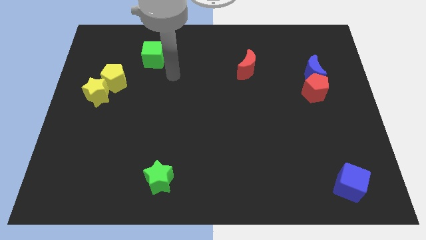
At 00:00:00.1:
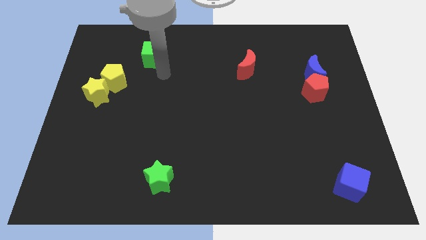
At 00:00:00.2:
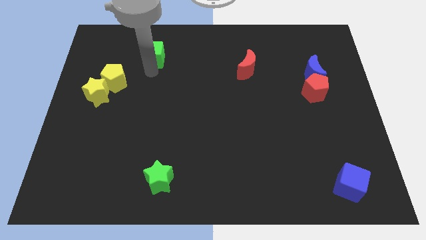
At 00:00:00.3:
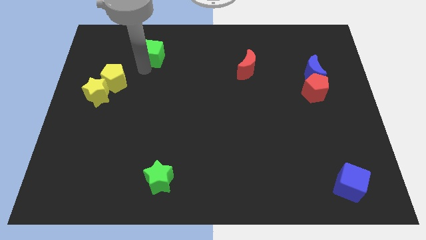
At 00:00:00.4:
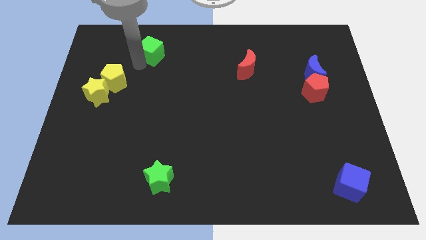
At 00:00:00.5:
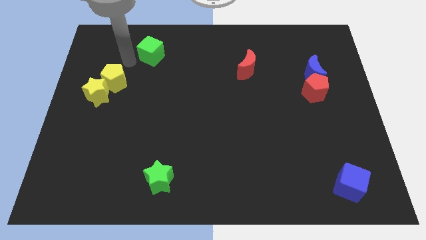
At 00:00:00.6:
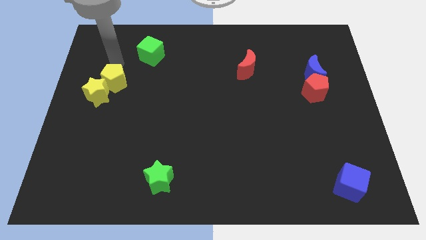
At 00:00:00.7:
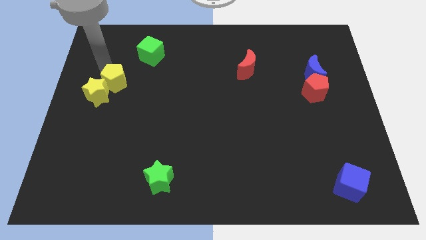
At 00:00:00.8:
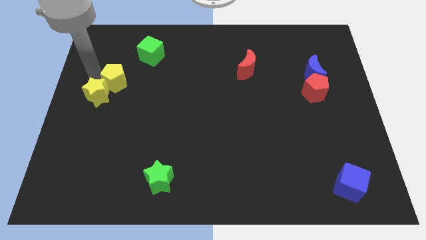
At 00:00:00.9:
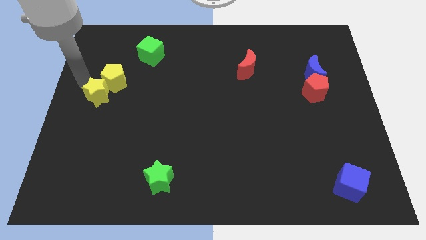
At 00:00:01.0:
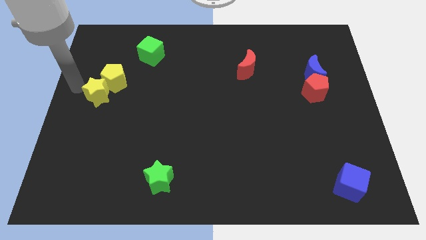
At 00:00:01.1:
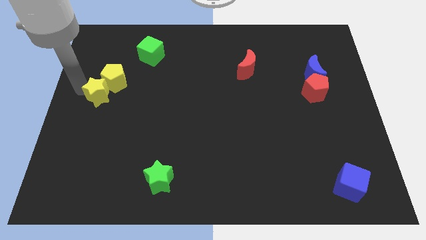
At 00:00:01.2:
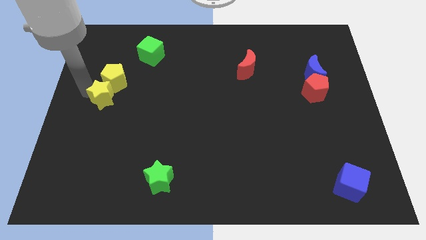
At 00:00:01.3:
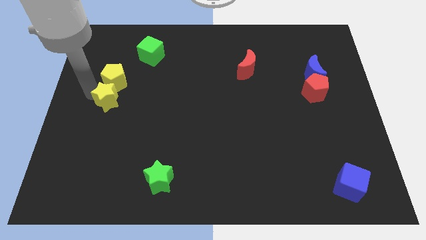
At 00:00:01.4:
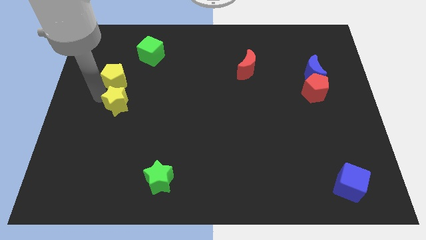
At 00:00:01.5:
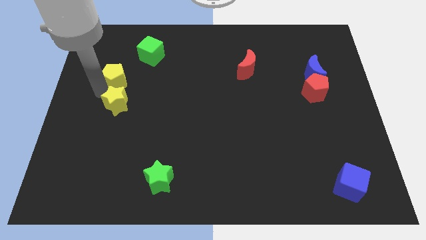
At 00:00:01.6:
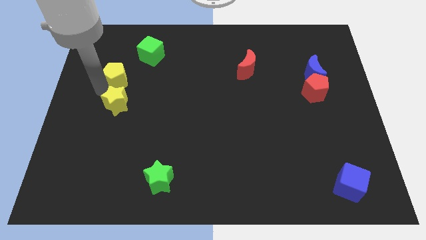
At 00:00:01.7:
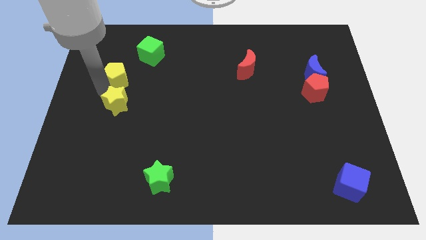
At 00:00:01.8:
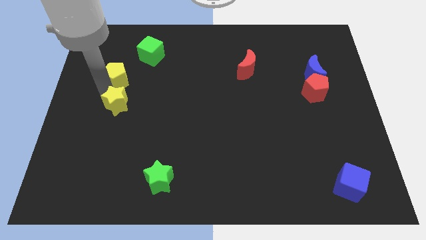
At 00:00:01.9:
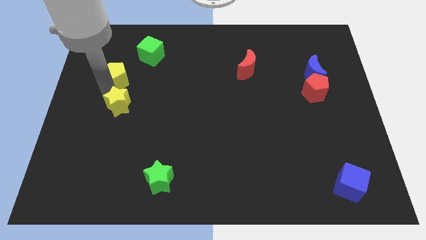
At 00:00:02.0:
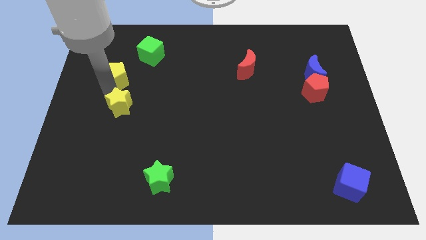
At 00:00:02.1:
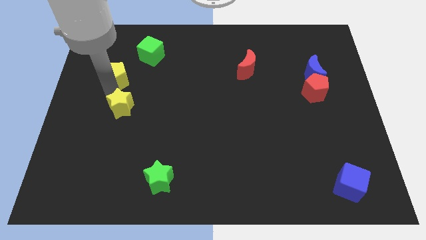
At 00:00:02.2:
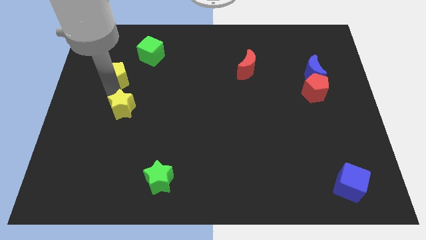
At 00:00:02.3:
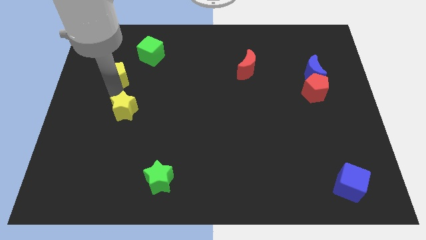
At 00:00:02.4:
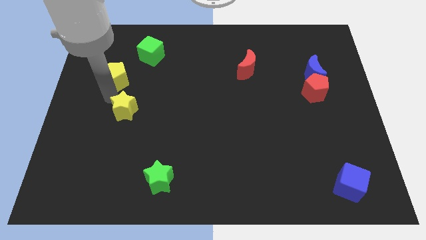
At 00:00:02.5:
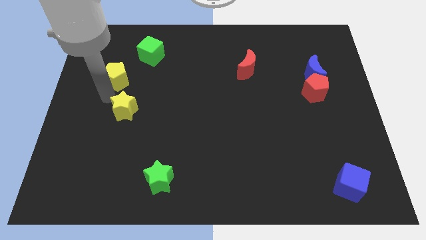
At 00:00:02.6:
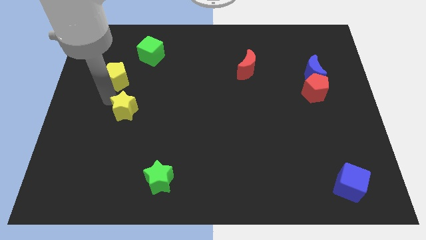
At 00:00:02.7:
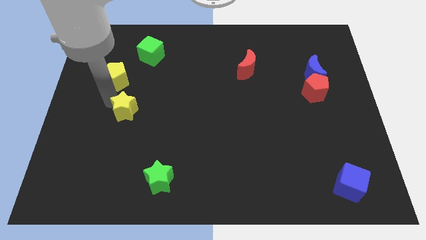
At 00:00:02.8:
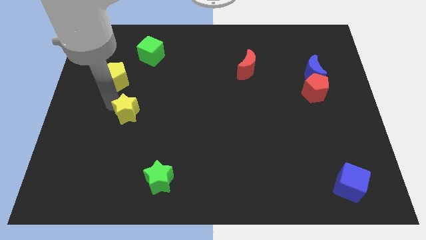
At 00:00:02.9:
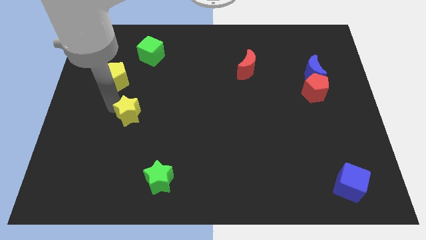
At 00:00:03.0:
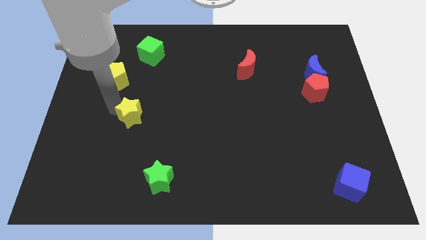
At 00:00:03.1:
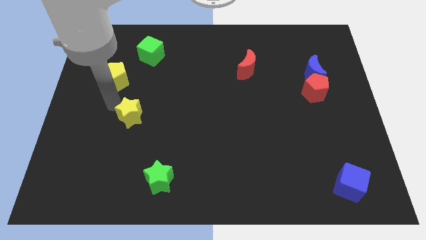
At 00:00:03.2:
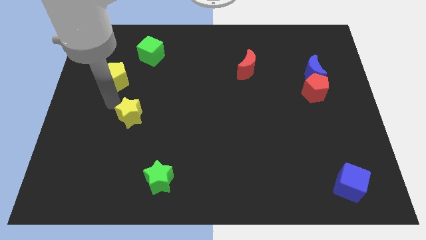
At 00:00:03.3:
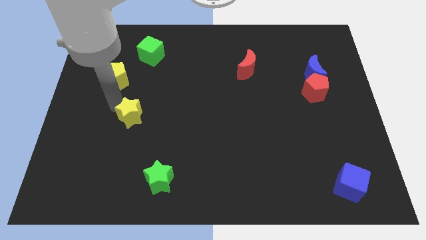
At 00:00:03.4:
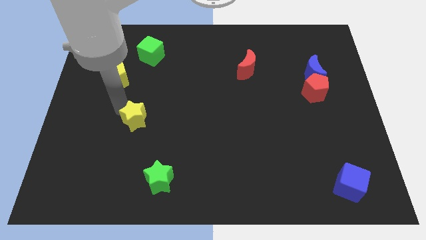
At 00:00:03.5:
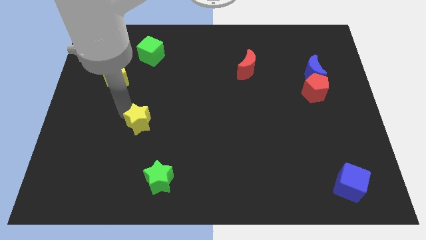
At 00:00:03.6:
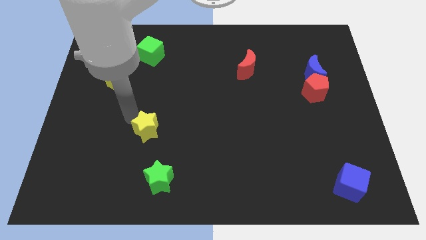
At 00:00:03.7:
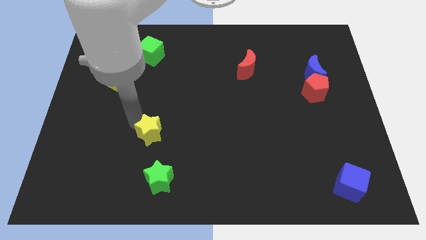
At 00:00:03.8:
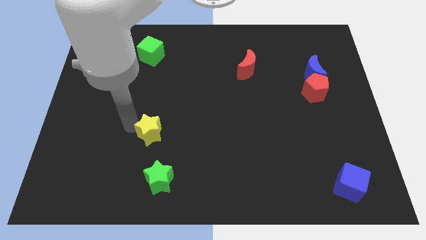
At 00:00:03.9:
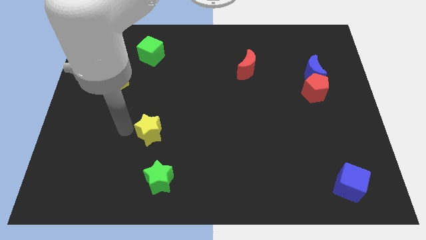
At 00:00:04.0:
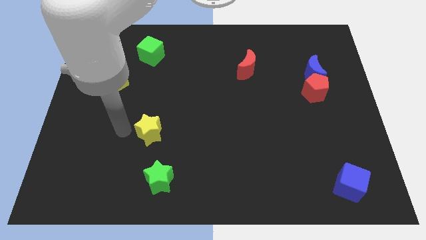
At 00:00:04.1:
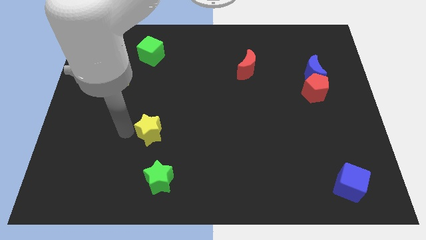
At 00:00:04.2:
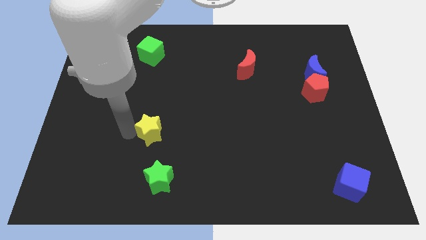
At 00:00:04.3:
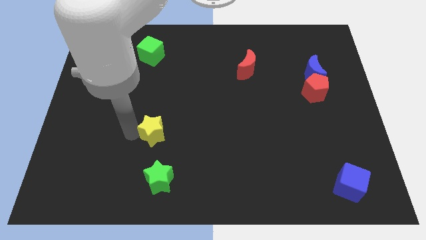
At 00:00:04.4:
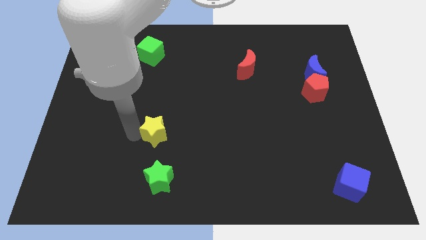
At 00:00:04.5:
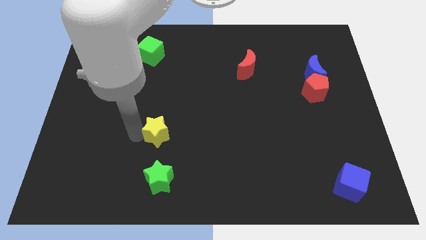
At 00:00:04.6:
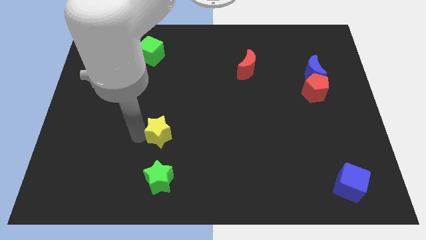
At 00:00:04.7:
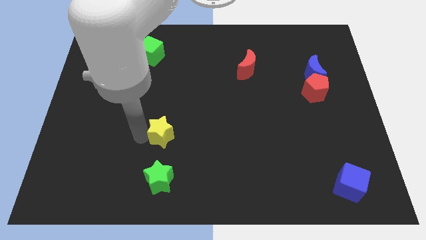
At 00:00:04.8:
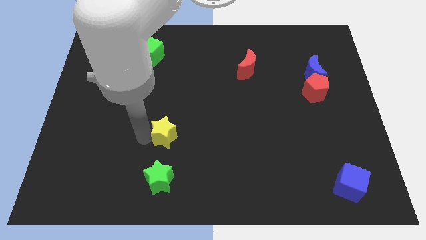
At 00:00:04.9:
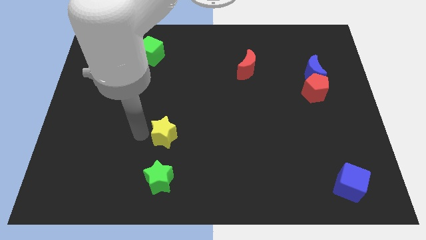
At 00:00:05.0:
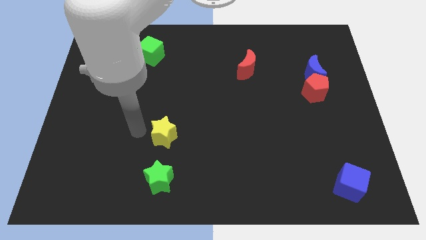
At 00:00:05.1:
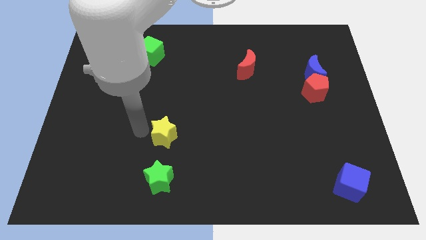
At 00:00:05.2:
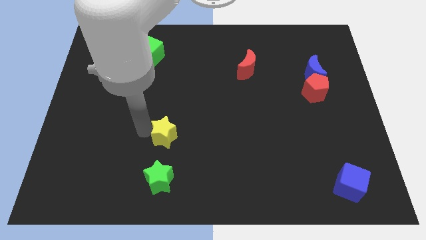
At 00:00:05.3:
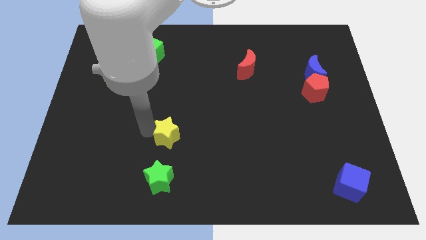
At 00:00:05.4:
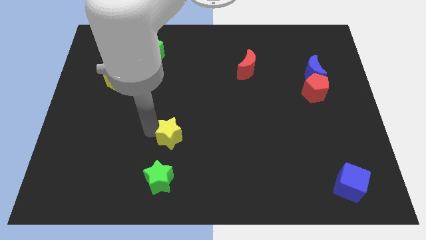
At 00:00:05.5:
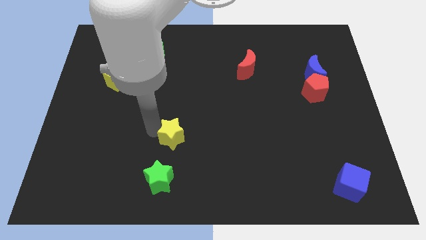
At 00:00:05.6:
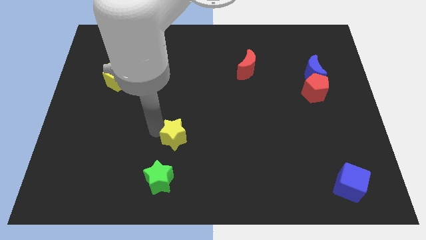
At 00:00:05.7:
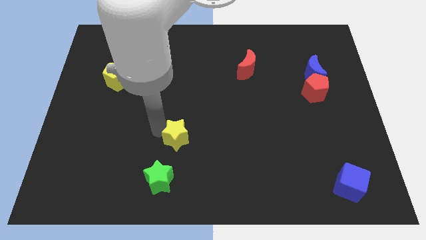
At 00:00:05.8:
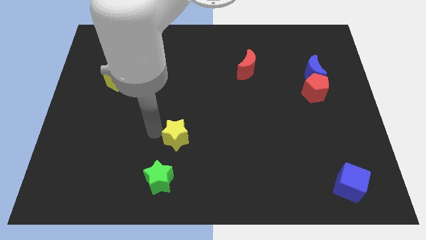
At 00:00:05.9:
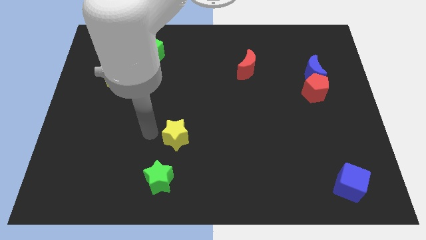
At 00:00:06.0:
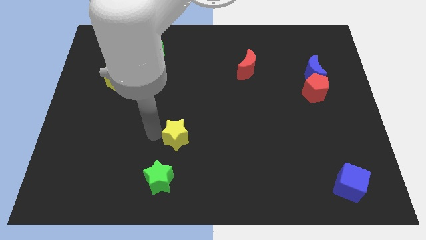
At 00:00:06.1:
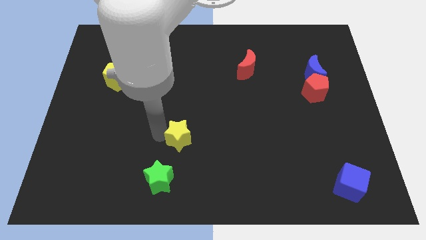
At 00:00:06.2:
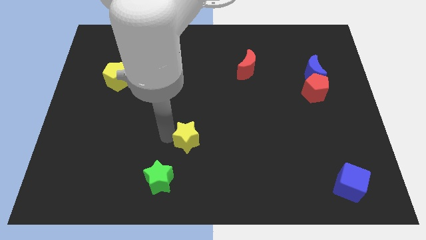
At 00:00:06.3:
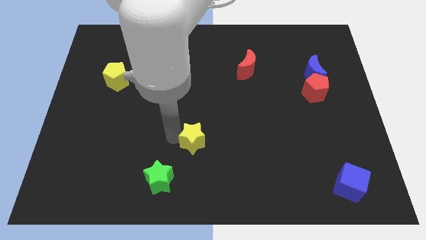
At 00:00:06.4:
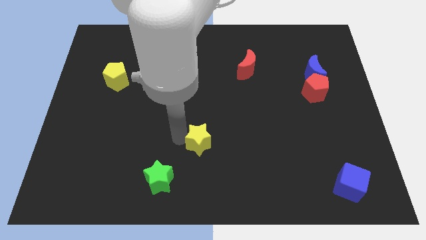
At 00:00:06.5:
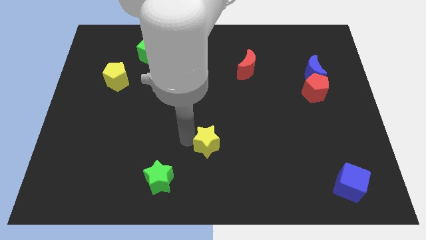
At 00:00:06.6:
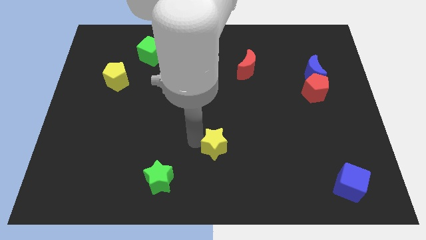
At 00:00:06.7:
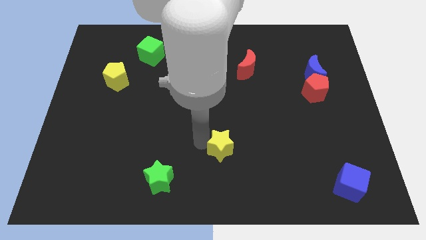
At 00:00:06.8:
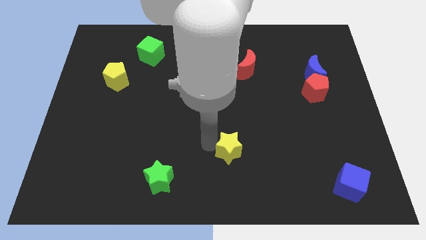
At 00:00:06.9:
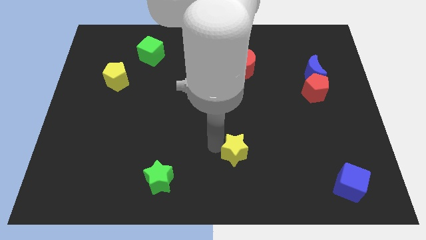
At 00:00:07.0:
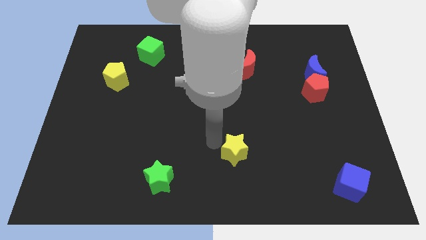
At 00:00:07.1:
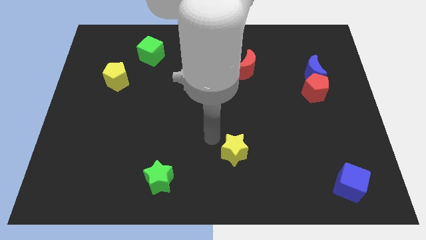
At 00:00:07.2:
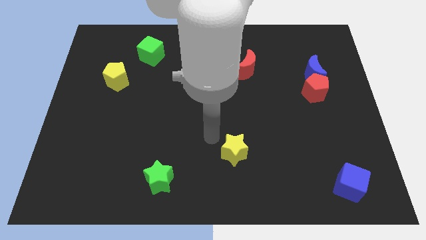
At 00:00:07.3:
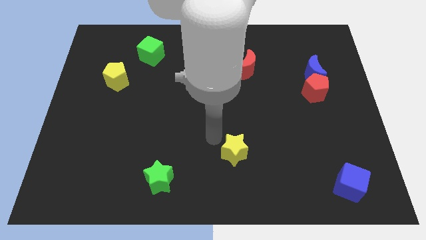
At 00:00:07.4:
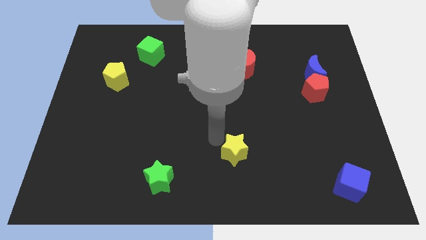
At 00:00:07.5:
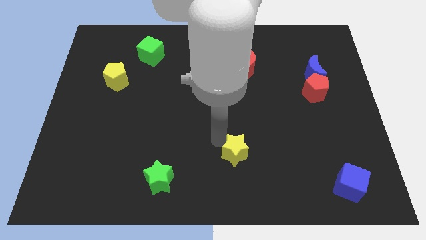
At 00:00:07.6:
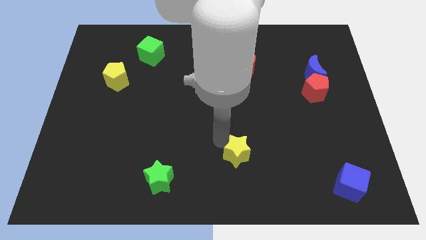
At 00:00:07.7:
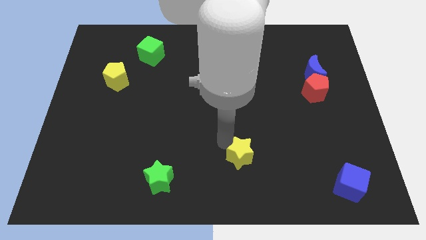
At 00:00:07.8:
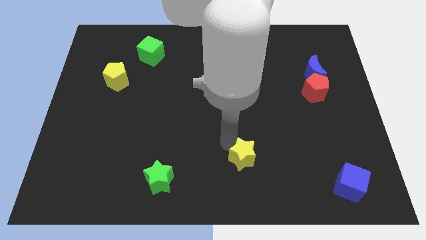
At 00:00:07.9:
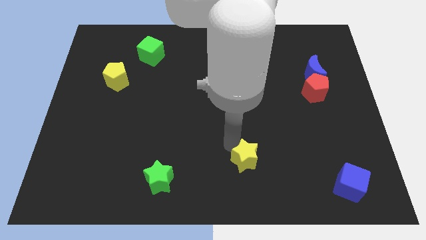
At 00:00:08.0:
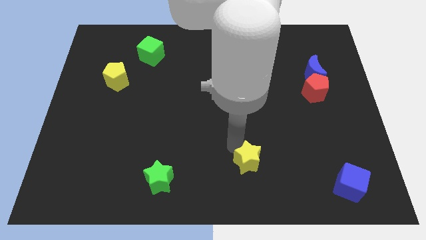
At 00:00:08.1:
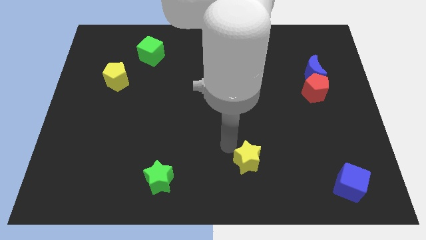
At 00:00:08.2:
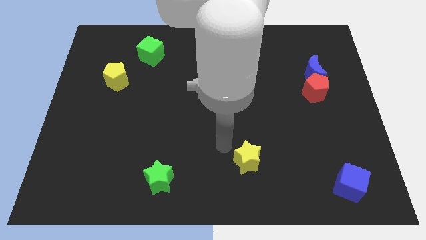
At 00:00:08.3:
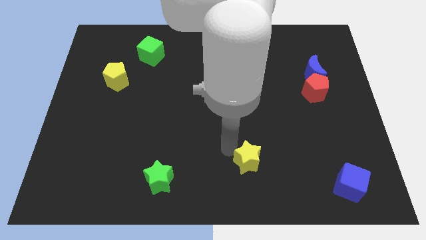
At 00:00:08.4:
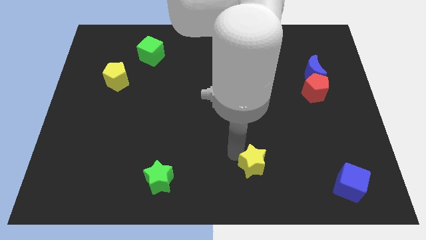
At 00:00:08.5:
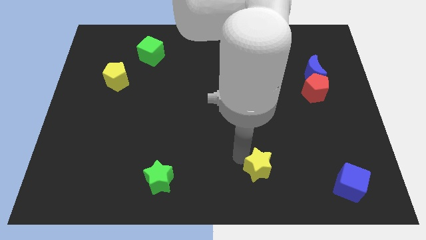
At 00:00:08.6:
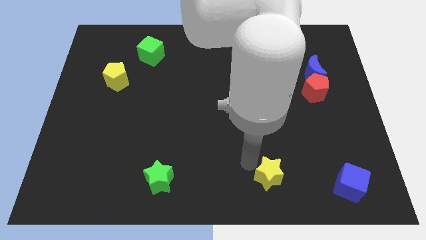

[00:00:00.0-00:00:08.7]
move the yellow star to the left side of the blue cube
